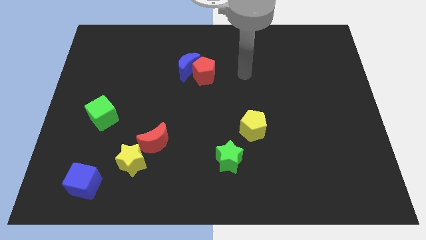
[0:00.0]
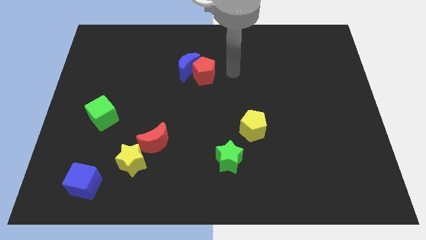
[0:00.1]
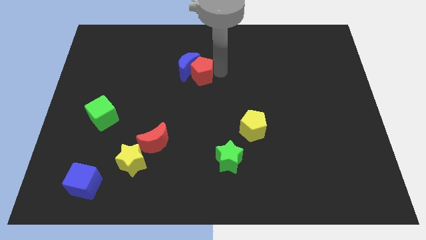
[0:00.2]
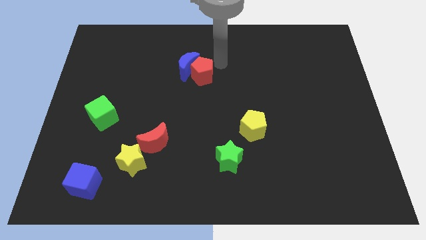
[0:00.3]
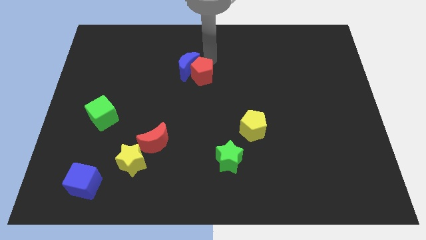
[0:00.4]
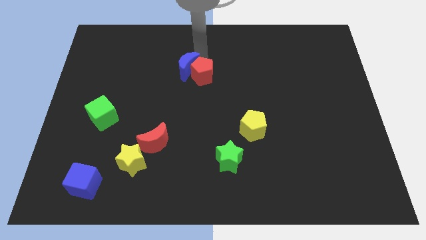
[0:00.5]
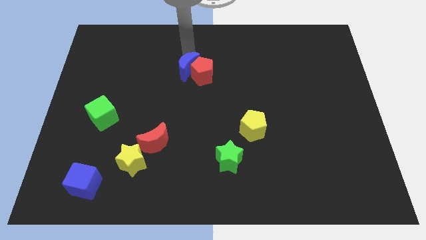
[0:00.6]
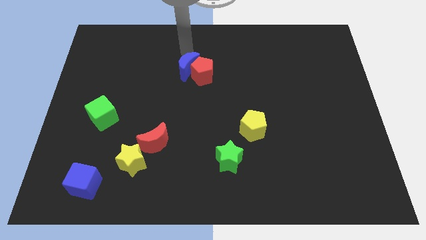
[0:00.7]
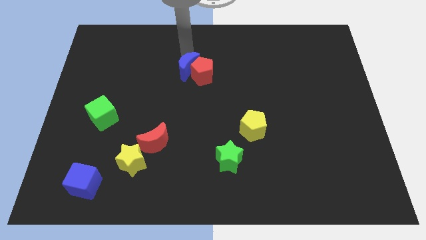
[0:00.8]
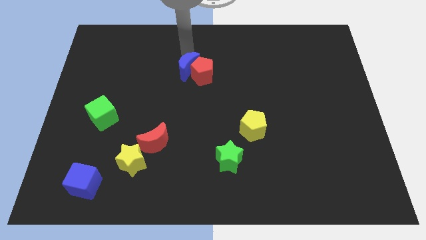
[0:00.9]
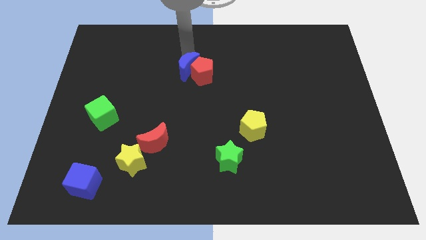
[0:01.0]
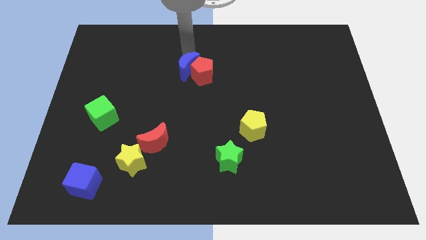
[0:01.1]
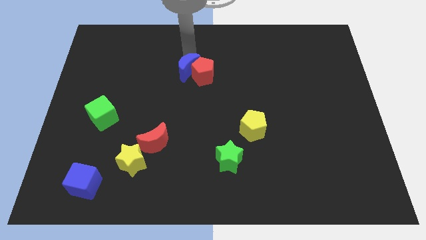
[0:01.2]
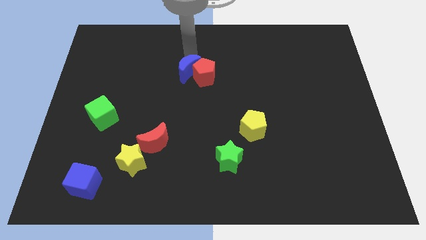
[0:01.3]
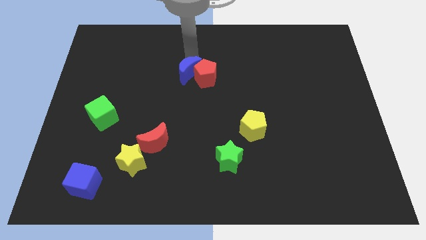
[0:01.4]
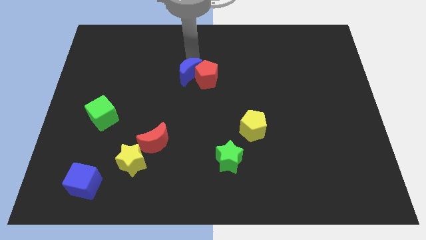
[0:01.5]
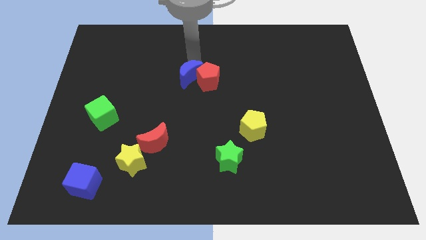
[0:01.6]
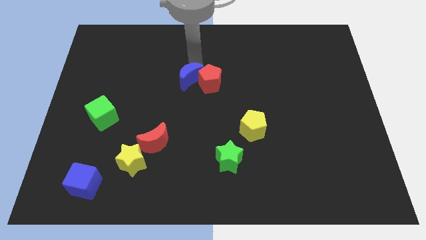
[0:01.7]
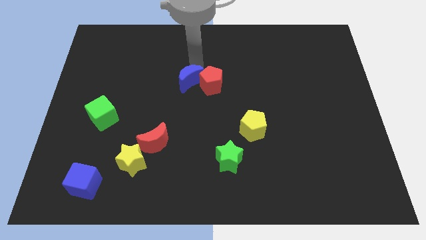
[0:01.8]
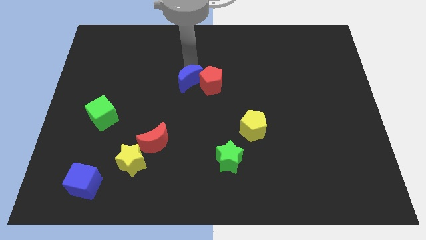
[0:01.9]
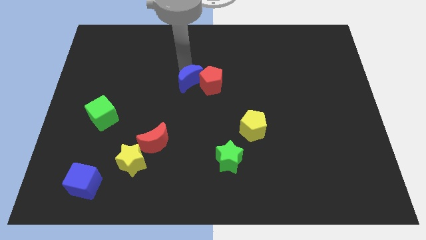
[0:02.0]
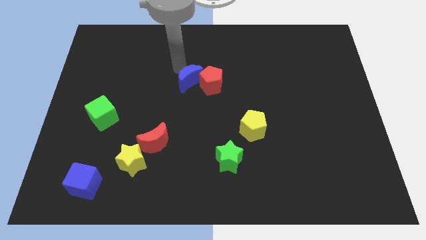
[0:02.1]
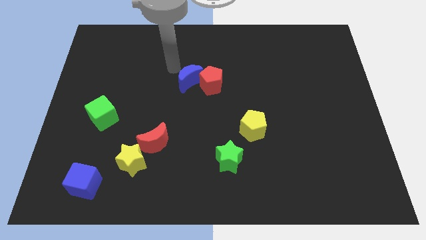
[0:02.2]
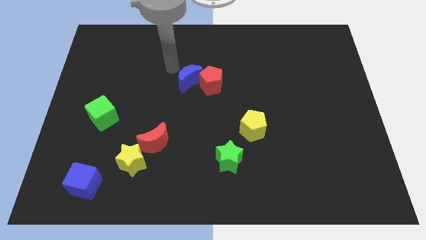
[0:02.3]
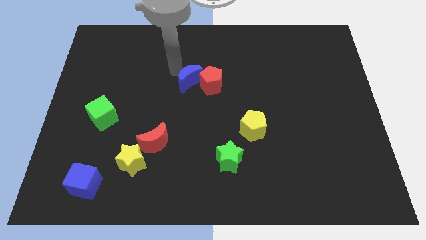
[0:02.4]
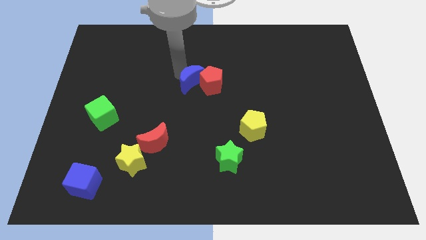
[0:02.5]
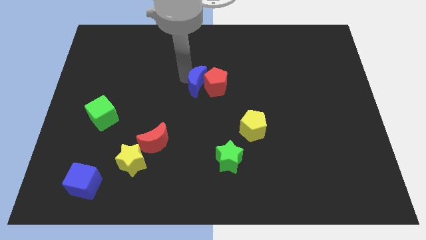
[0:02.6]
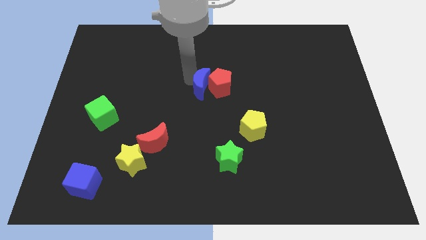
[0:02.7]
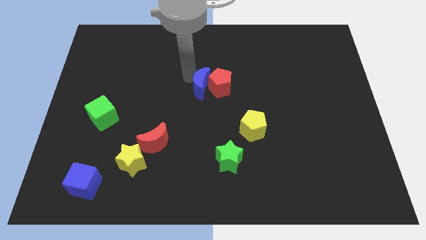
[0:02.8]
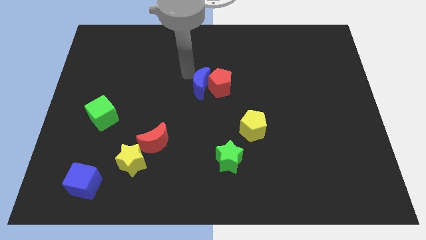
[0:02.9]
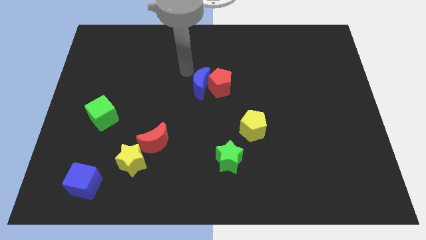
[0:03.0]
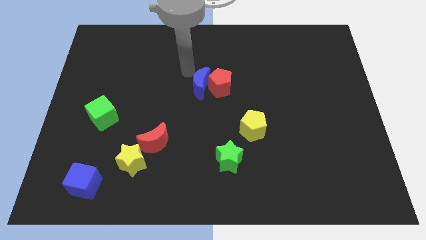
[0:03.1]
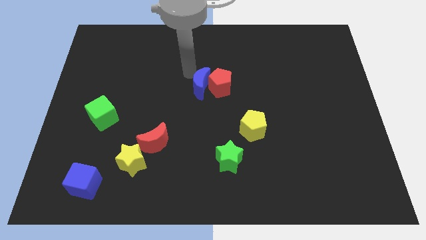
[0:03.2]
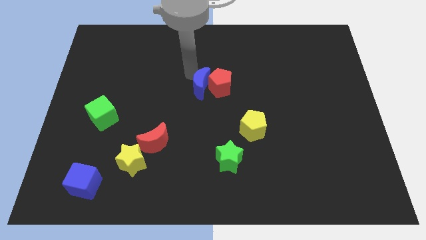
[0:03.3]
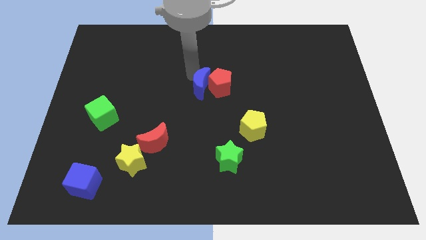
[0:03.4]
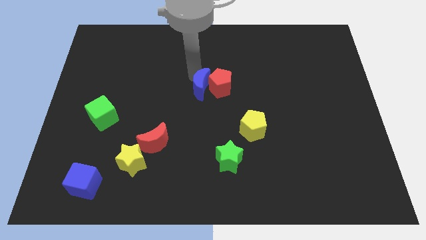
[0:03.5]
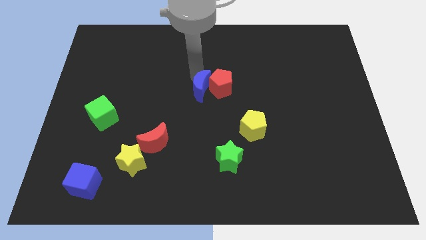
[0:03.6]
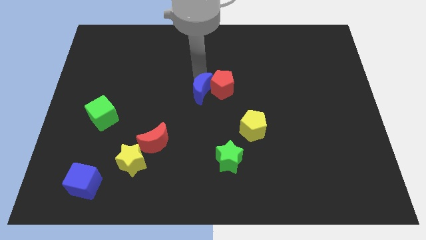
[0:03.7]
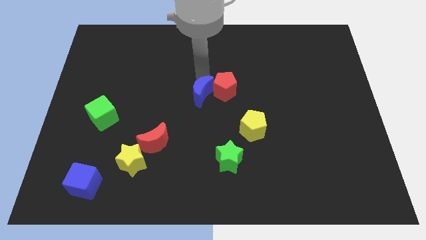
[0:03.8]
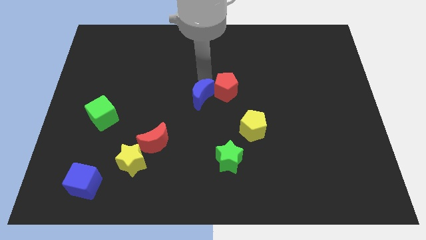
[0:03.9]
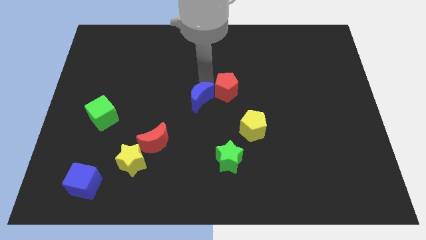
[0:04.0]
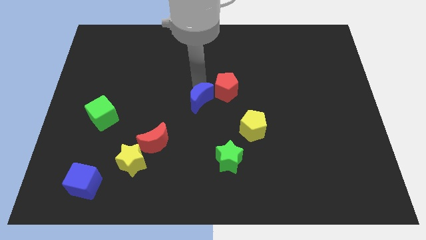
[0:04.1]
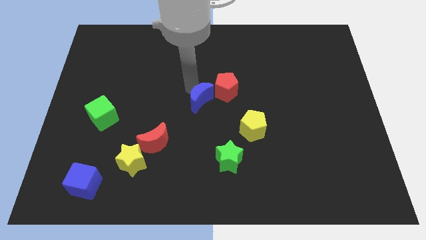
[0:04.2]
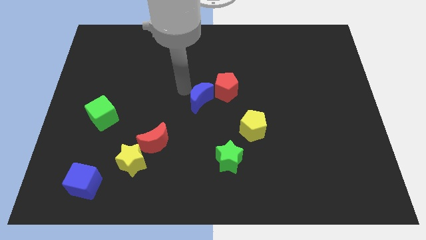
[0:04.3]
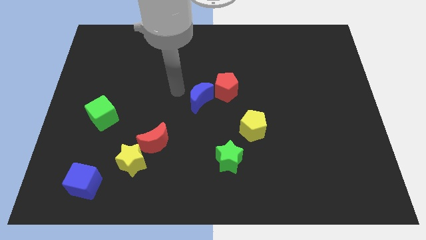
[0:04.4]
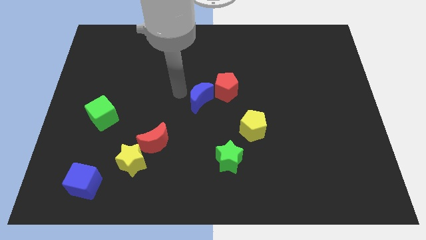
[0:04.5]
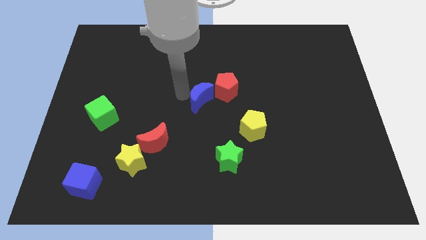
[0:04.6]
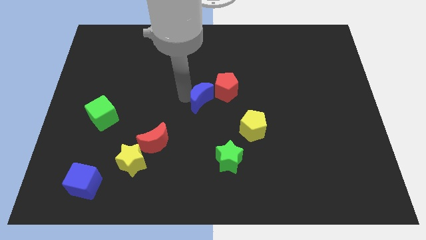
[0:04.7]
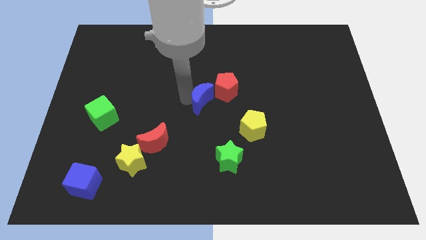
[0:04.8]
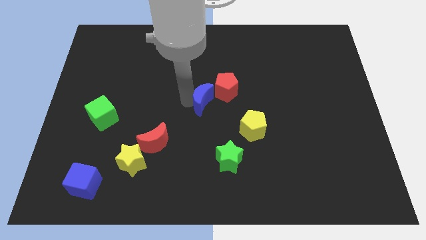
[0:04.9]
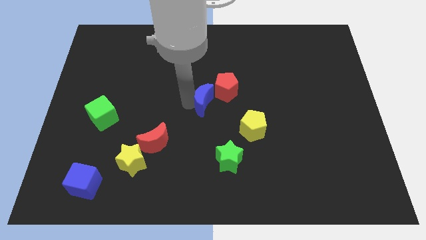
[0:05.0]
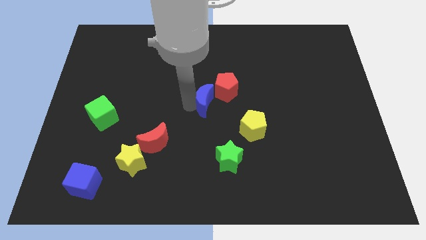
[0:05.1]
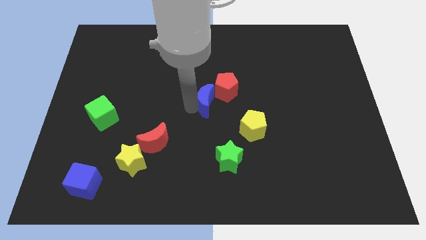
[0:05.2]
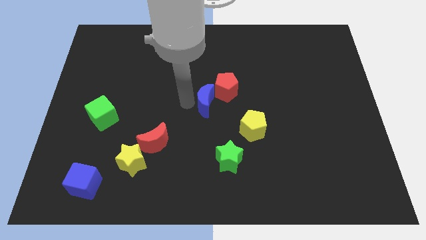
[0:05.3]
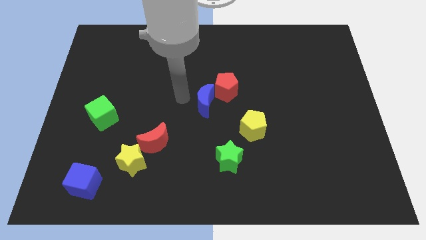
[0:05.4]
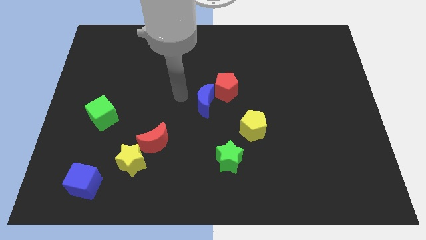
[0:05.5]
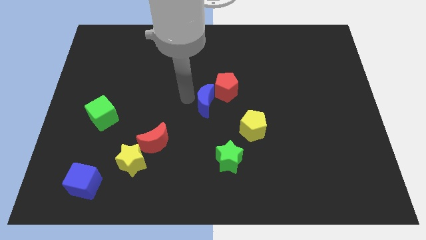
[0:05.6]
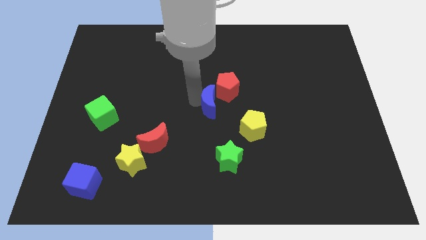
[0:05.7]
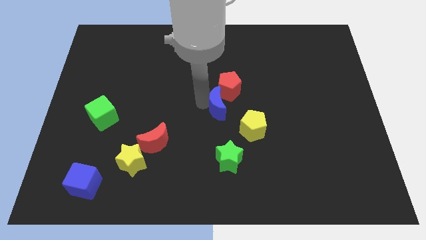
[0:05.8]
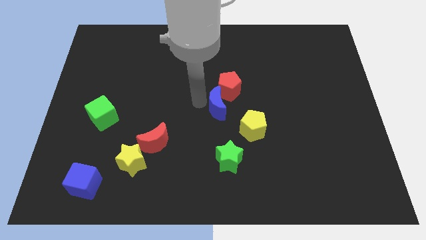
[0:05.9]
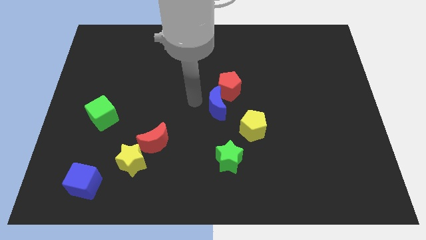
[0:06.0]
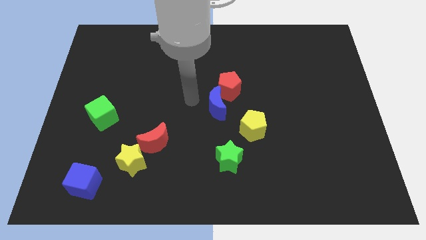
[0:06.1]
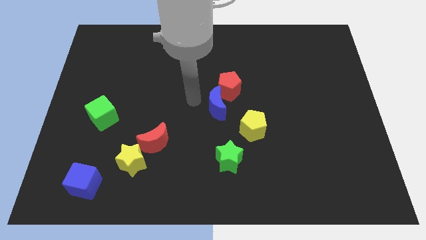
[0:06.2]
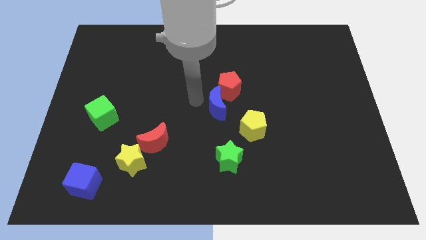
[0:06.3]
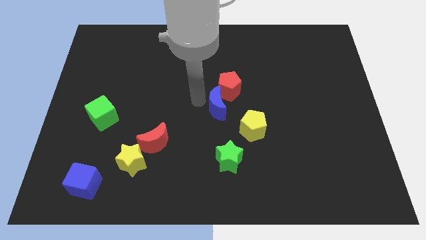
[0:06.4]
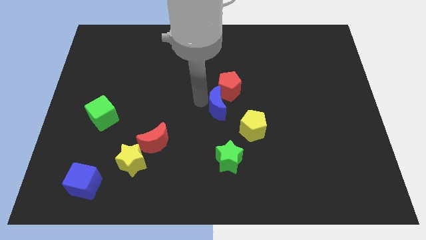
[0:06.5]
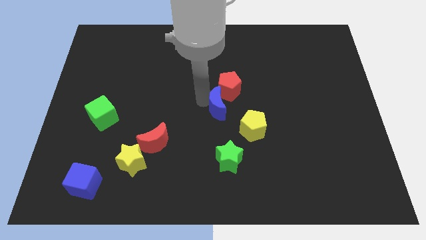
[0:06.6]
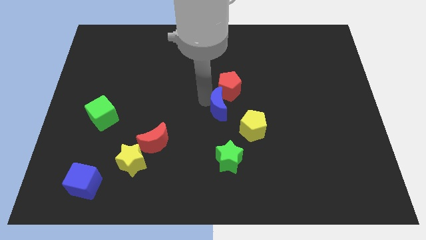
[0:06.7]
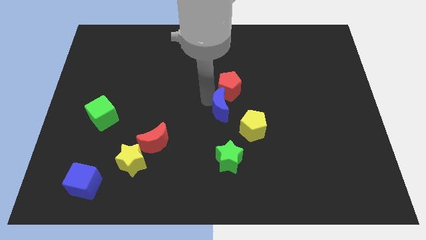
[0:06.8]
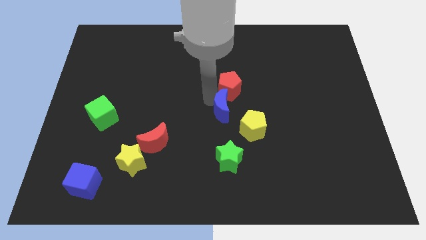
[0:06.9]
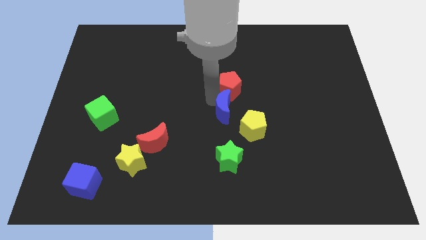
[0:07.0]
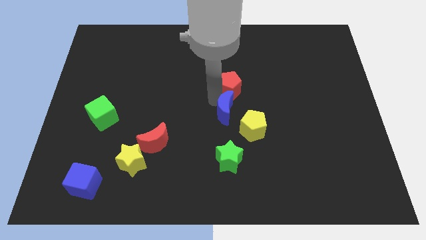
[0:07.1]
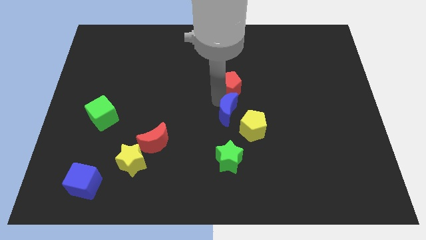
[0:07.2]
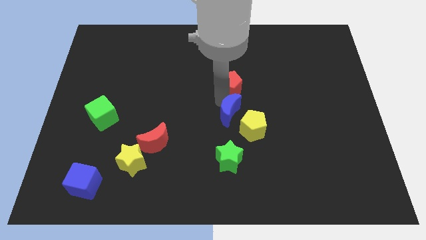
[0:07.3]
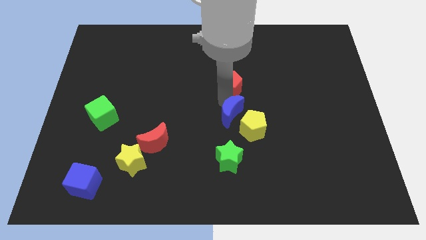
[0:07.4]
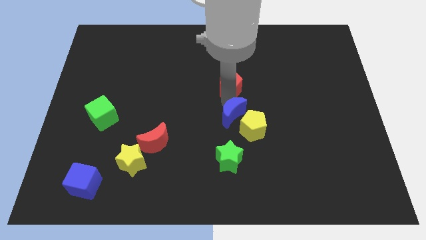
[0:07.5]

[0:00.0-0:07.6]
move the blue moon next to the yellow pentagon
